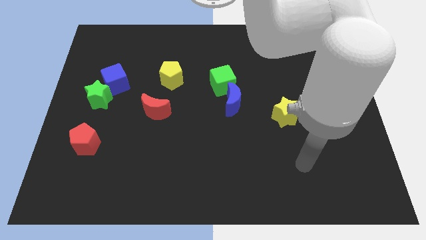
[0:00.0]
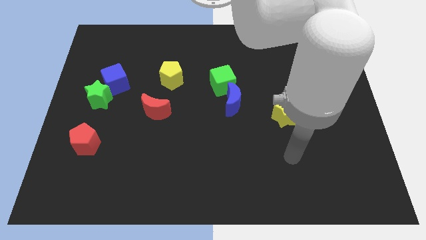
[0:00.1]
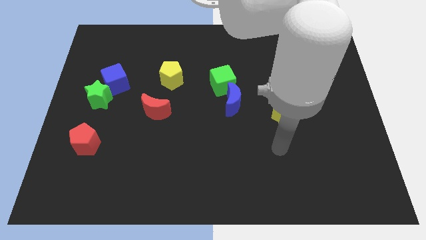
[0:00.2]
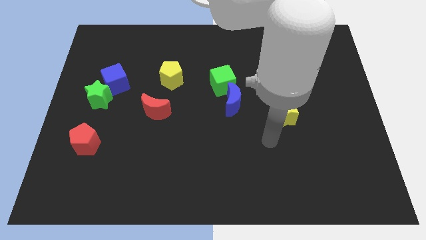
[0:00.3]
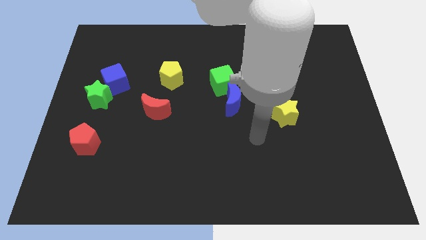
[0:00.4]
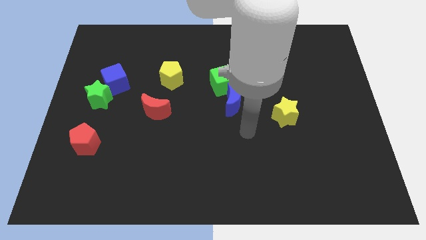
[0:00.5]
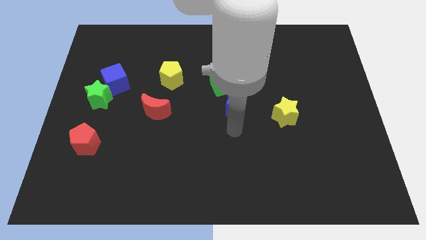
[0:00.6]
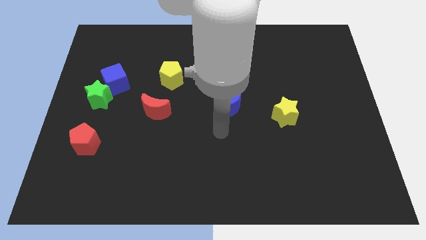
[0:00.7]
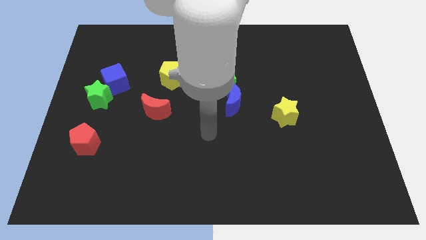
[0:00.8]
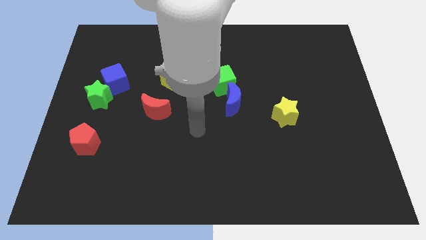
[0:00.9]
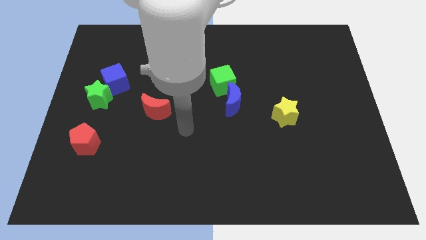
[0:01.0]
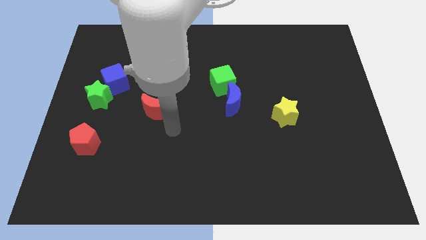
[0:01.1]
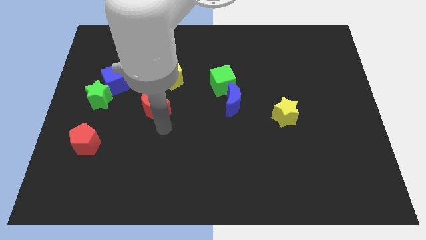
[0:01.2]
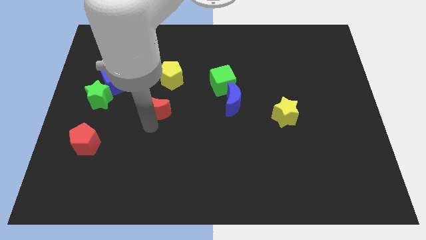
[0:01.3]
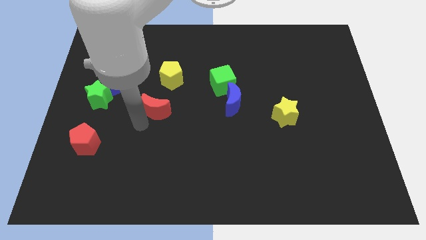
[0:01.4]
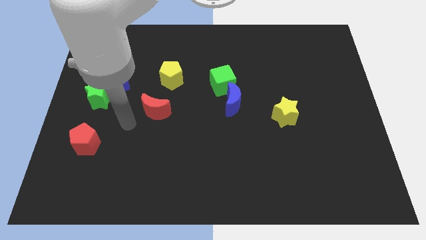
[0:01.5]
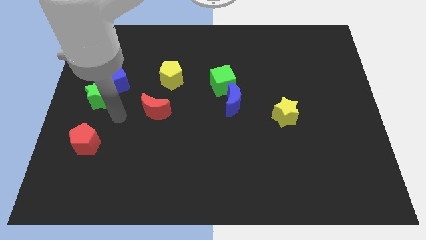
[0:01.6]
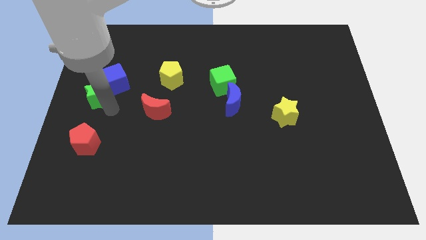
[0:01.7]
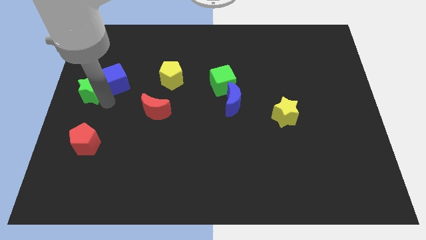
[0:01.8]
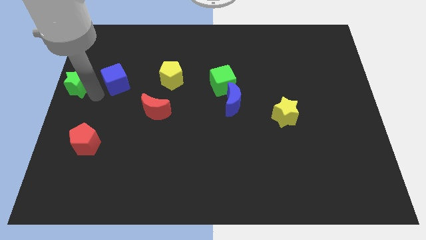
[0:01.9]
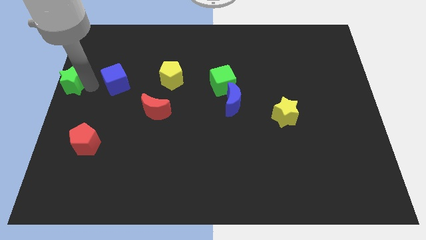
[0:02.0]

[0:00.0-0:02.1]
pull the blue cube apart from the green star

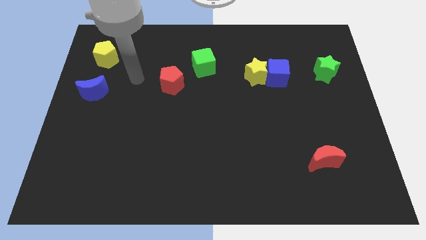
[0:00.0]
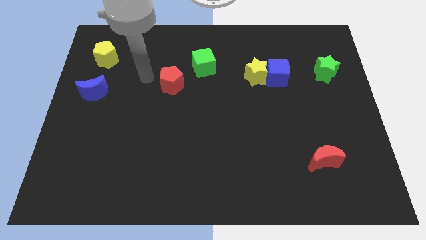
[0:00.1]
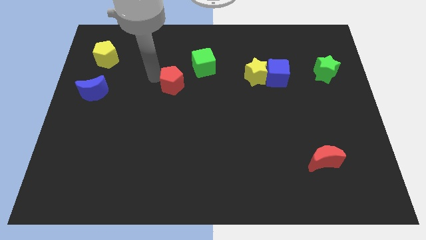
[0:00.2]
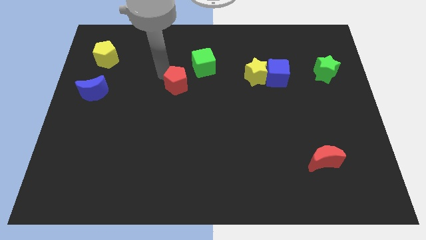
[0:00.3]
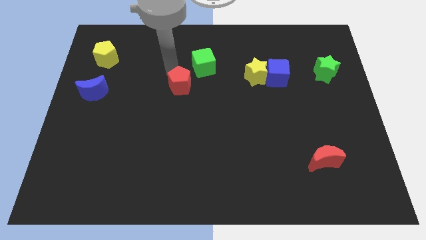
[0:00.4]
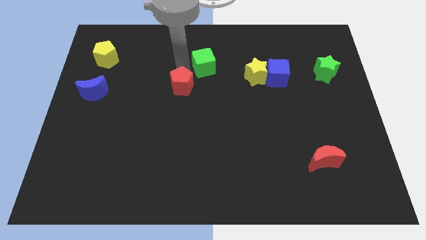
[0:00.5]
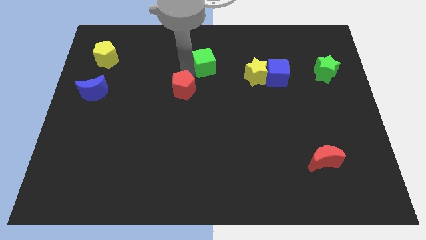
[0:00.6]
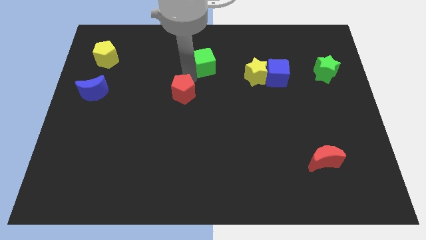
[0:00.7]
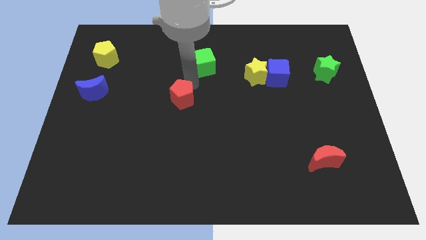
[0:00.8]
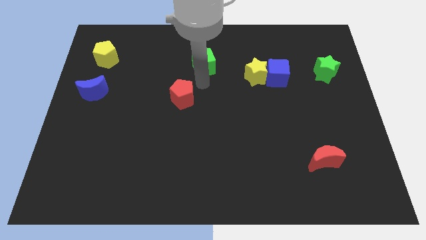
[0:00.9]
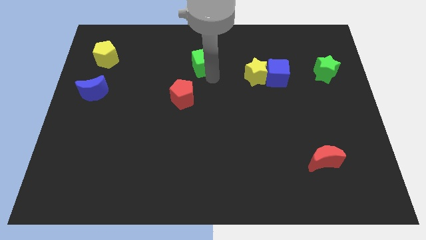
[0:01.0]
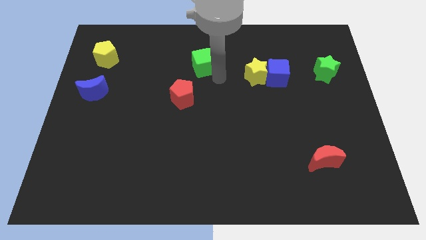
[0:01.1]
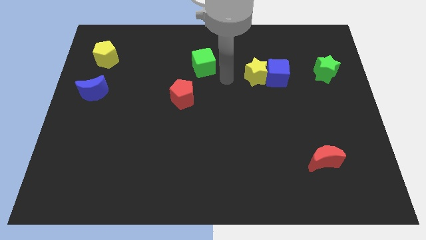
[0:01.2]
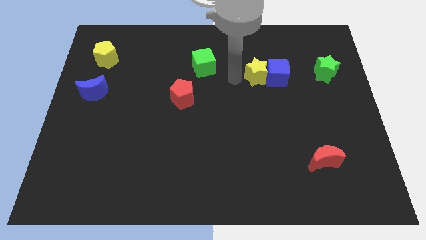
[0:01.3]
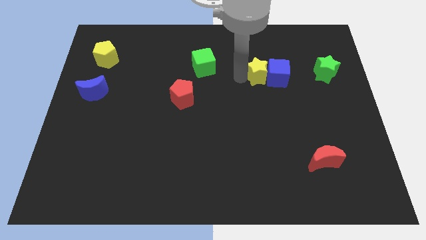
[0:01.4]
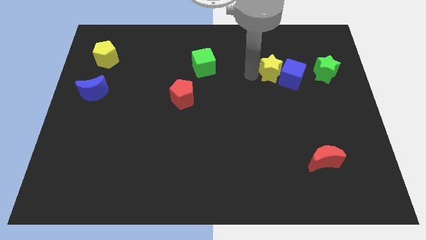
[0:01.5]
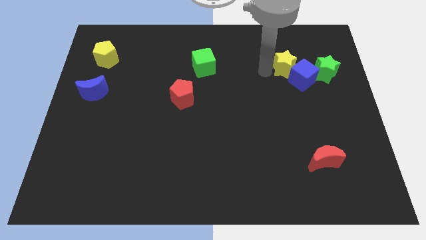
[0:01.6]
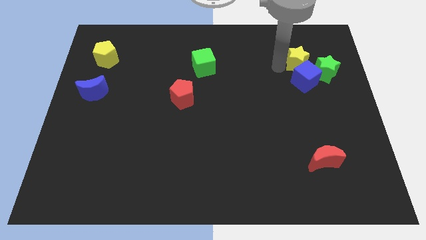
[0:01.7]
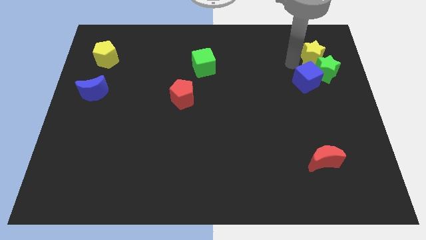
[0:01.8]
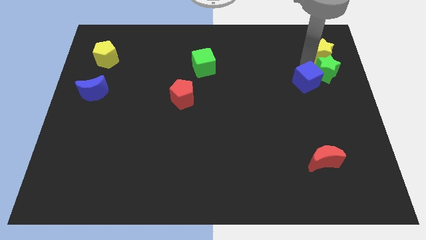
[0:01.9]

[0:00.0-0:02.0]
separate the blue cube from the yellow star

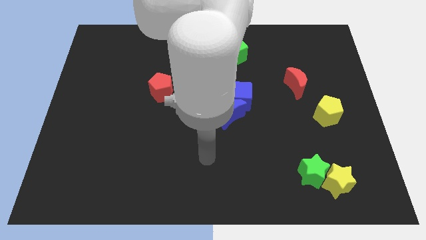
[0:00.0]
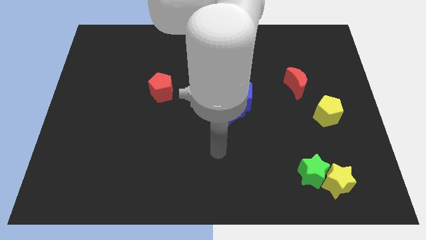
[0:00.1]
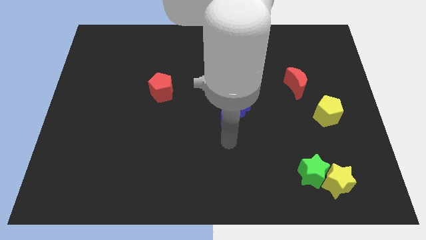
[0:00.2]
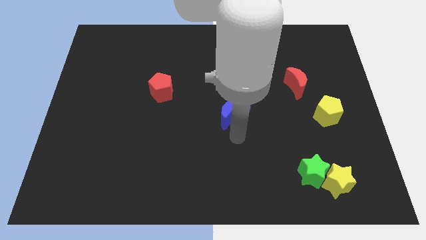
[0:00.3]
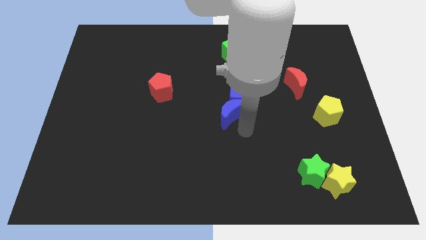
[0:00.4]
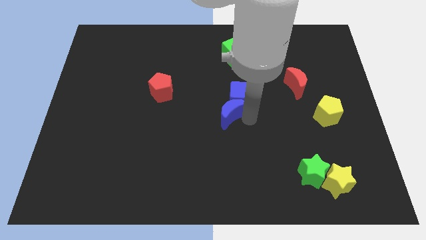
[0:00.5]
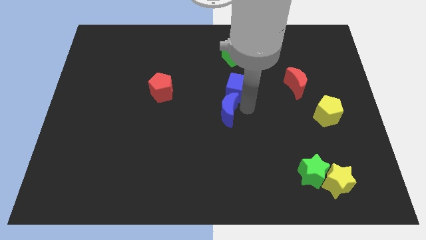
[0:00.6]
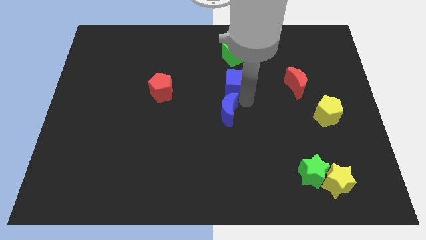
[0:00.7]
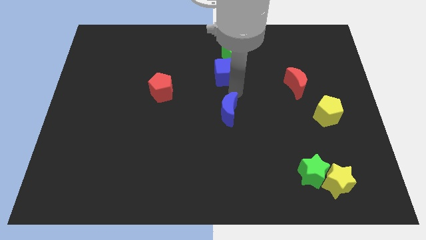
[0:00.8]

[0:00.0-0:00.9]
move the blue moon away from the blue cube

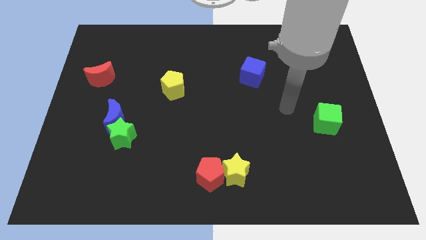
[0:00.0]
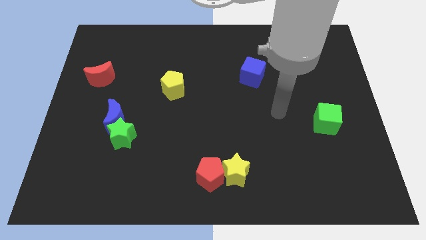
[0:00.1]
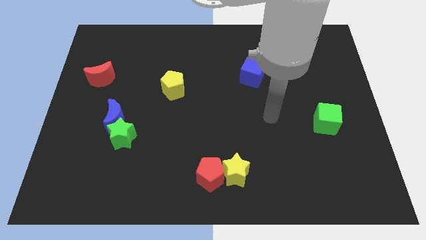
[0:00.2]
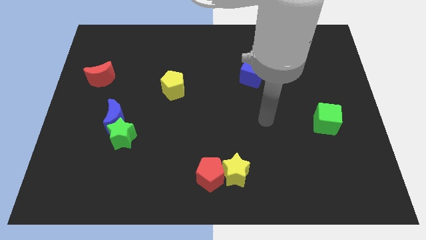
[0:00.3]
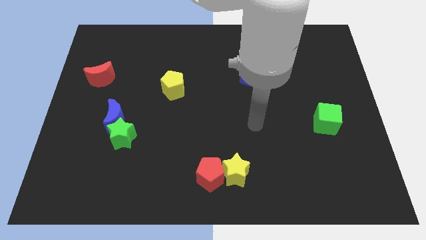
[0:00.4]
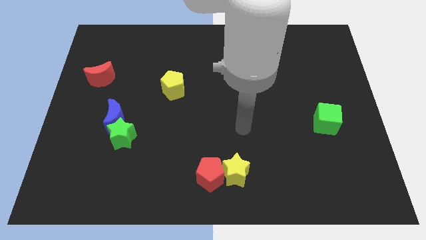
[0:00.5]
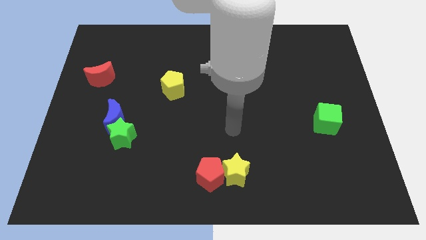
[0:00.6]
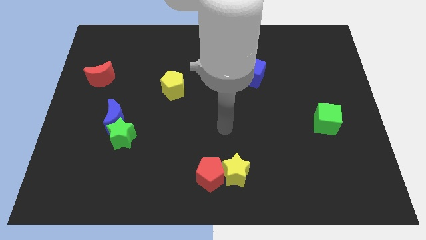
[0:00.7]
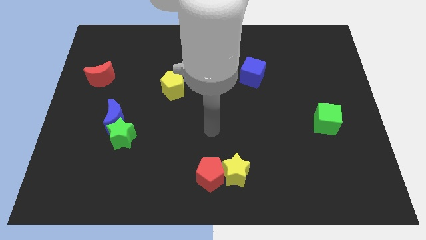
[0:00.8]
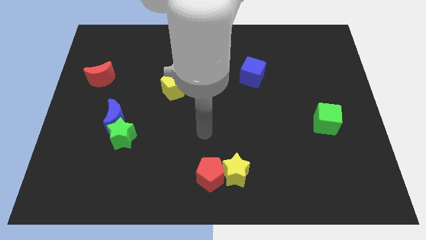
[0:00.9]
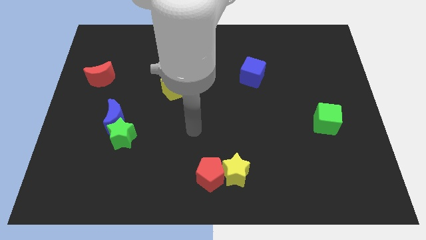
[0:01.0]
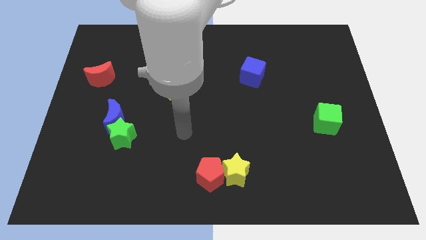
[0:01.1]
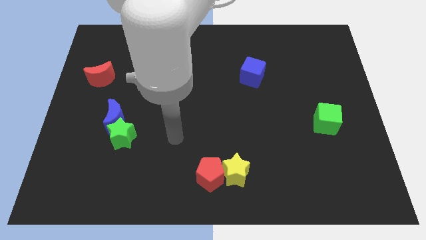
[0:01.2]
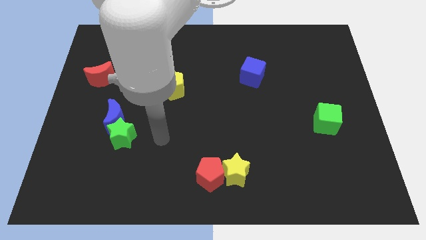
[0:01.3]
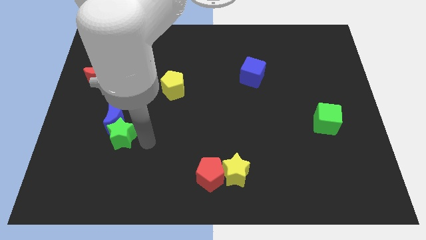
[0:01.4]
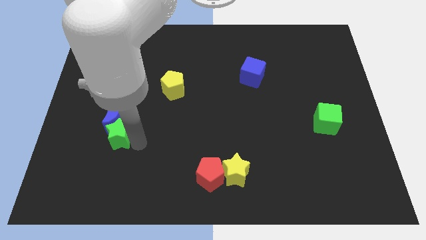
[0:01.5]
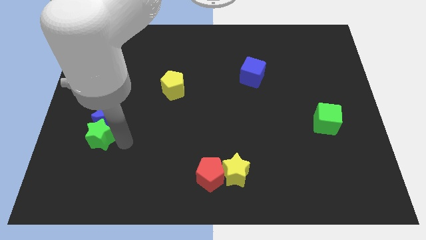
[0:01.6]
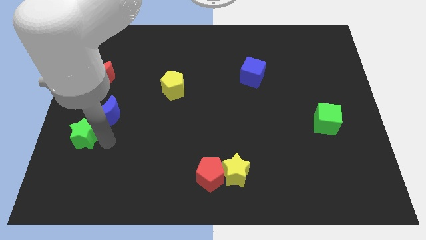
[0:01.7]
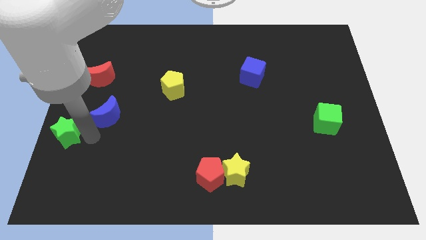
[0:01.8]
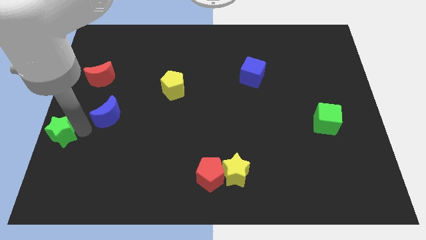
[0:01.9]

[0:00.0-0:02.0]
pull the blue moon apart from the green star

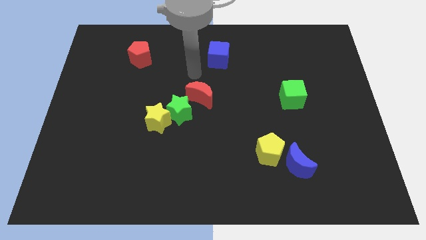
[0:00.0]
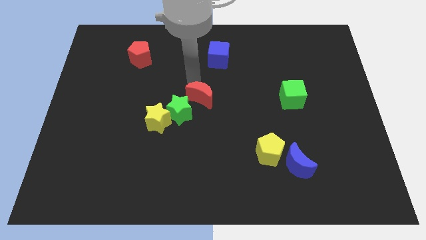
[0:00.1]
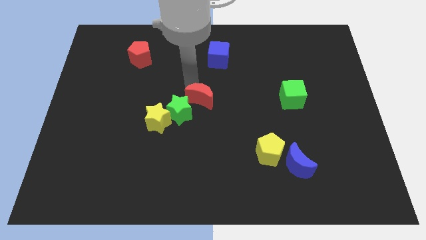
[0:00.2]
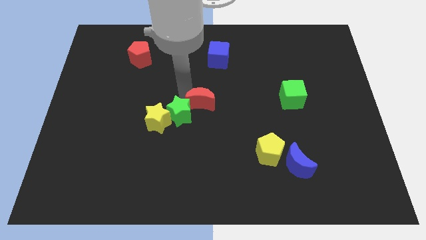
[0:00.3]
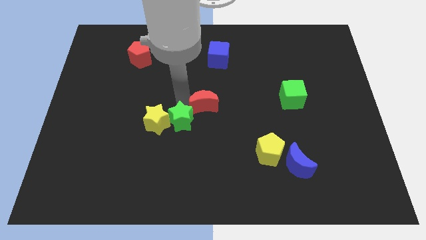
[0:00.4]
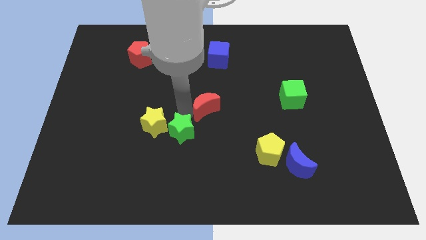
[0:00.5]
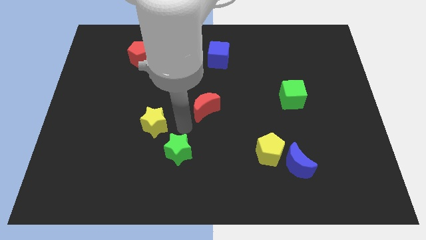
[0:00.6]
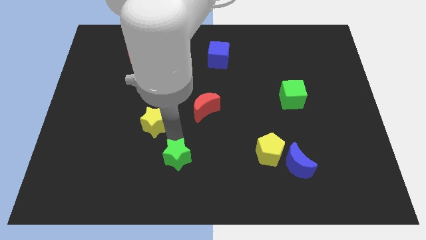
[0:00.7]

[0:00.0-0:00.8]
move the yellow star away from the green star

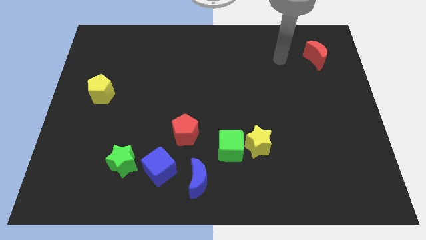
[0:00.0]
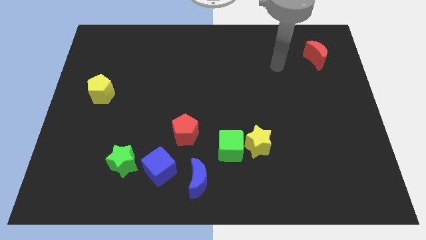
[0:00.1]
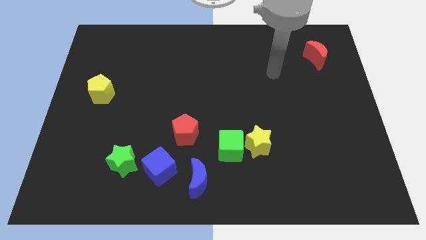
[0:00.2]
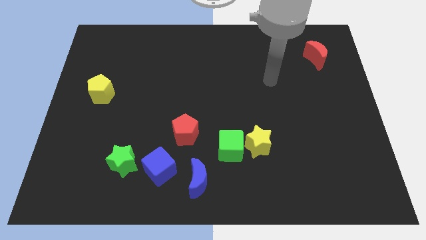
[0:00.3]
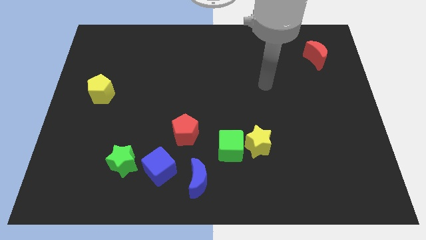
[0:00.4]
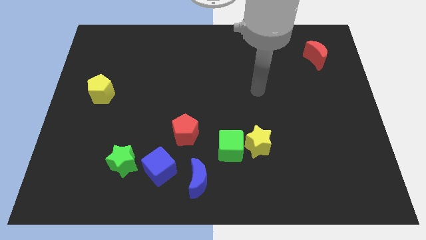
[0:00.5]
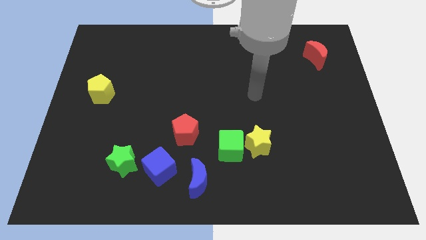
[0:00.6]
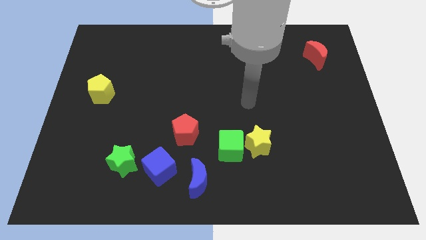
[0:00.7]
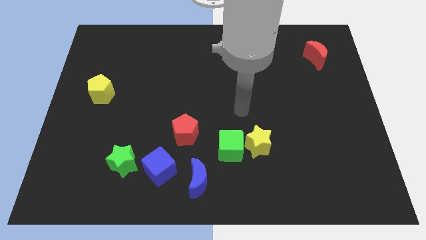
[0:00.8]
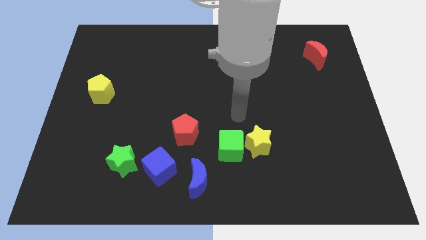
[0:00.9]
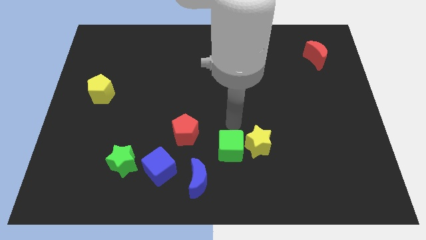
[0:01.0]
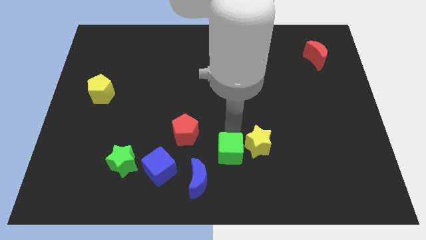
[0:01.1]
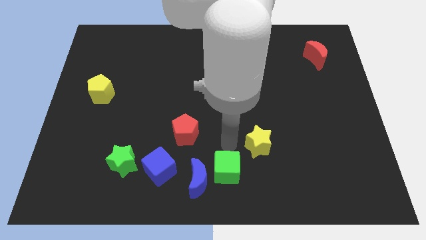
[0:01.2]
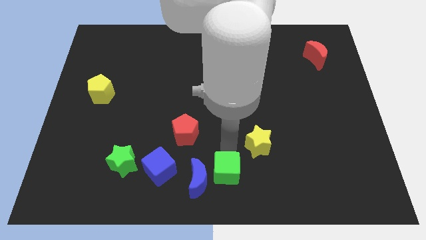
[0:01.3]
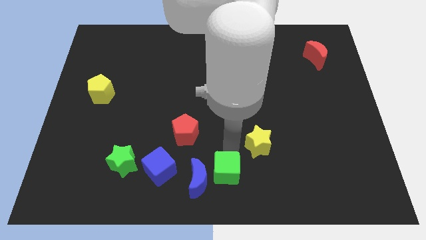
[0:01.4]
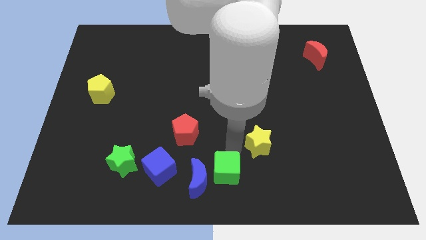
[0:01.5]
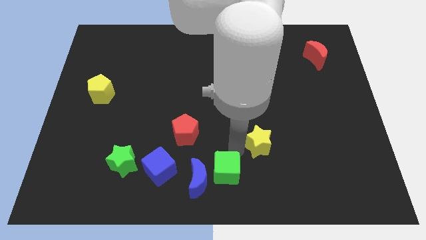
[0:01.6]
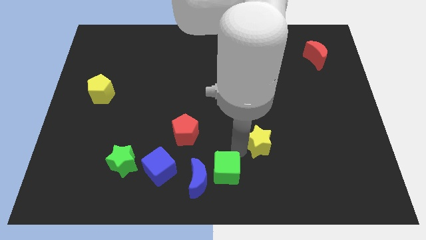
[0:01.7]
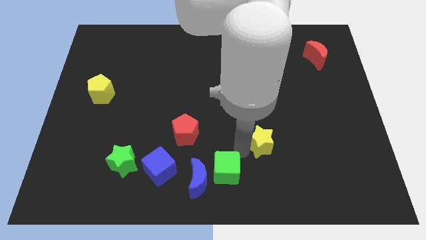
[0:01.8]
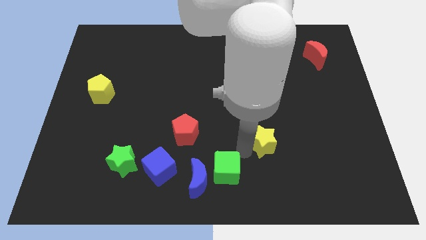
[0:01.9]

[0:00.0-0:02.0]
move the yellow star away from the green cube
